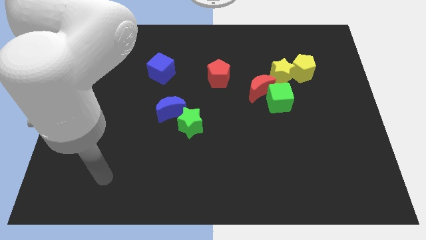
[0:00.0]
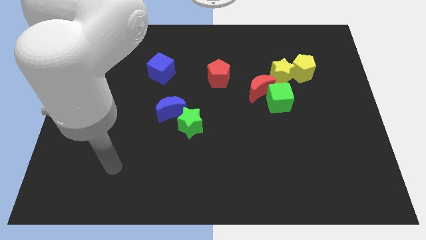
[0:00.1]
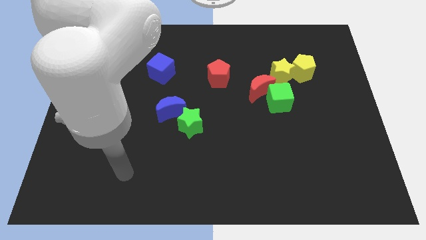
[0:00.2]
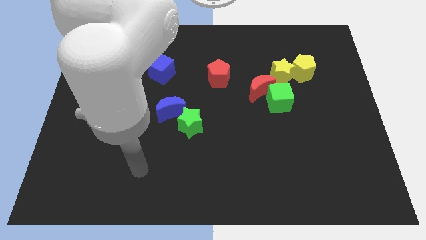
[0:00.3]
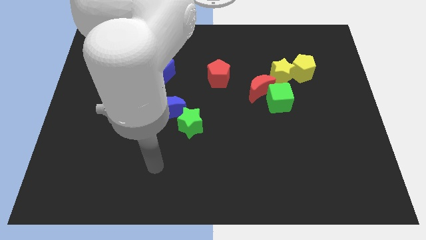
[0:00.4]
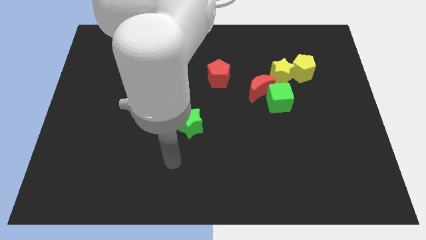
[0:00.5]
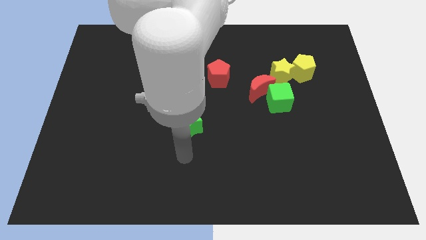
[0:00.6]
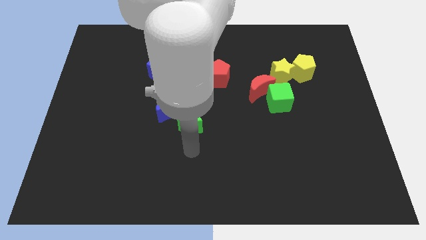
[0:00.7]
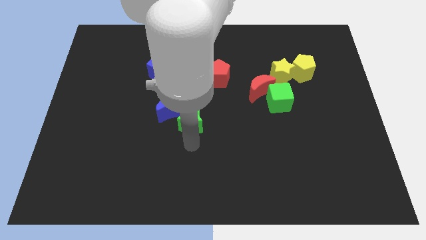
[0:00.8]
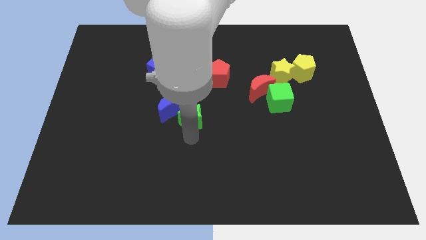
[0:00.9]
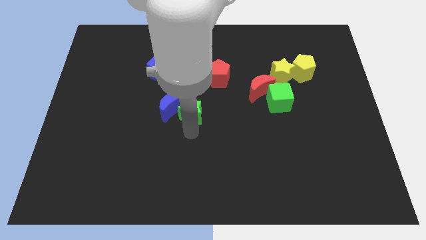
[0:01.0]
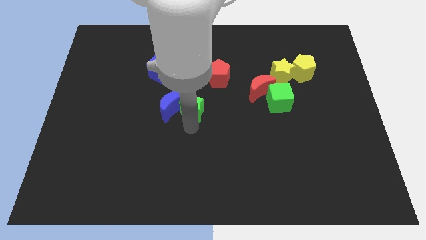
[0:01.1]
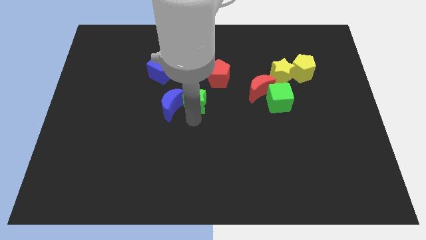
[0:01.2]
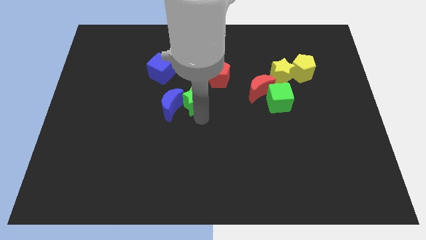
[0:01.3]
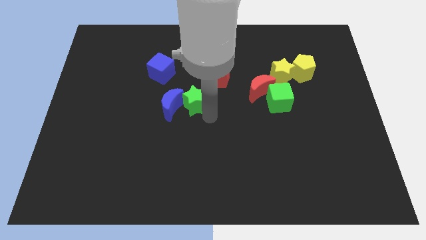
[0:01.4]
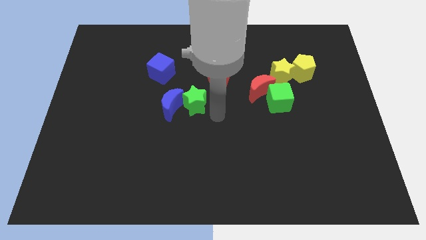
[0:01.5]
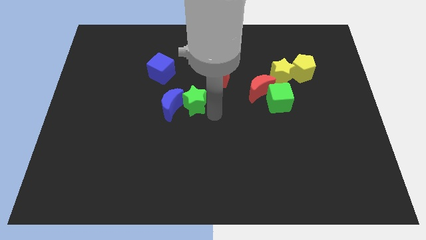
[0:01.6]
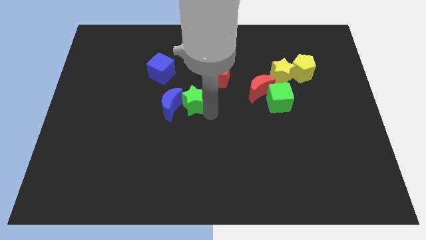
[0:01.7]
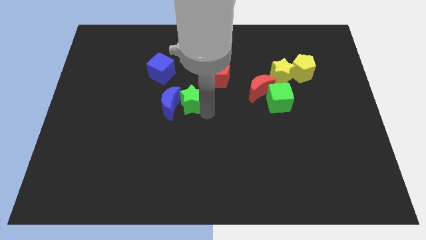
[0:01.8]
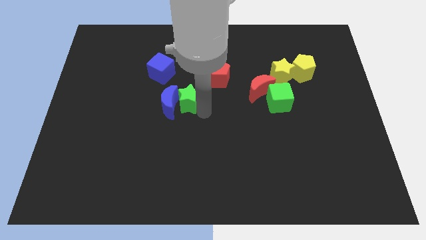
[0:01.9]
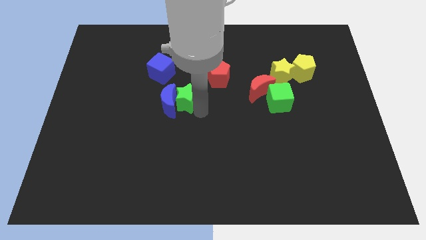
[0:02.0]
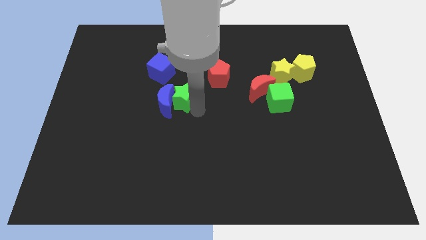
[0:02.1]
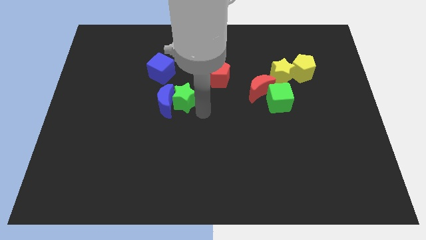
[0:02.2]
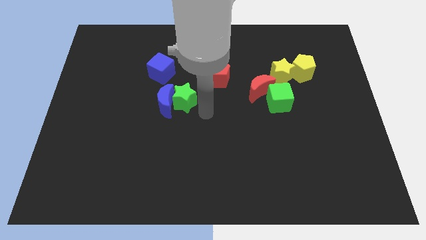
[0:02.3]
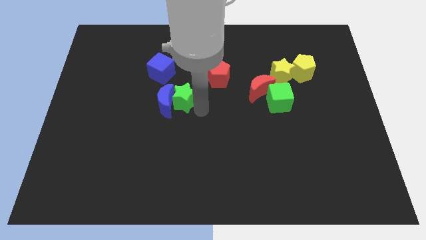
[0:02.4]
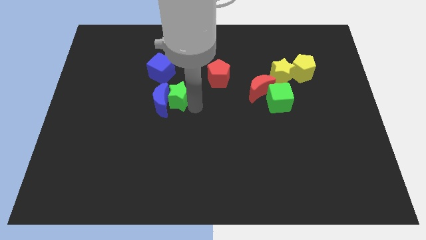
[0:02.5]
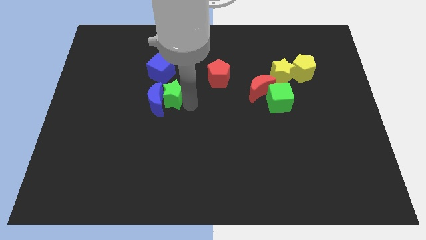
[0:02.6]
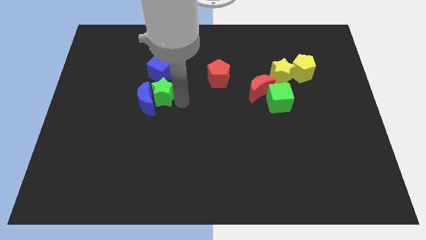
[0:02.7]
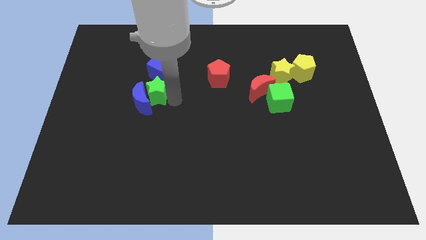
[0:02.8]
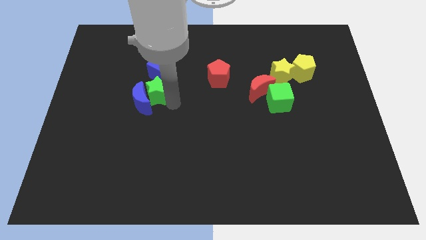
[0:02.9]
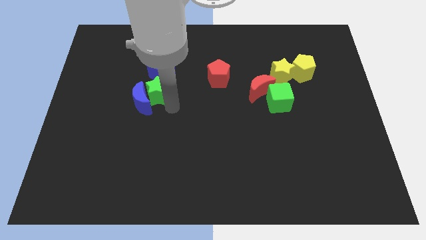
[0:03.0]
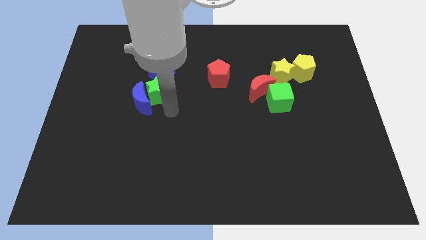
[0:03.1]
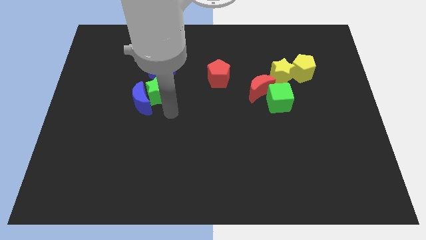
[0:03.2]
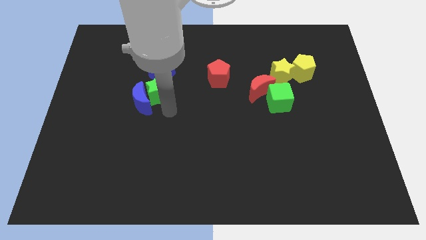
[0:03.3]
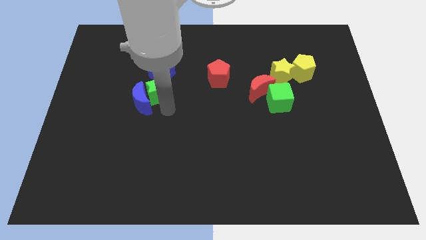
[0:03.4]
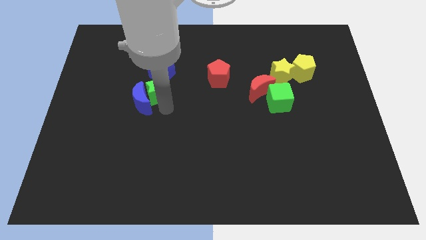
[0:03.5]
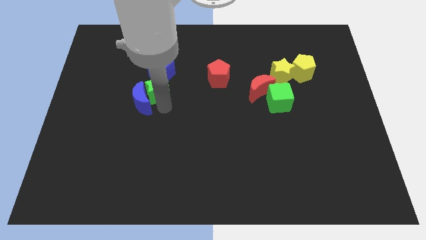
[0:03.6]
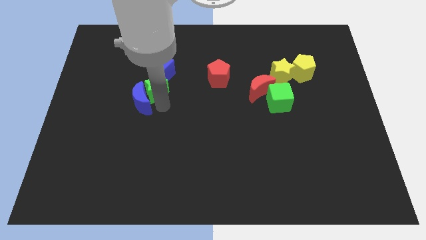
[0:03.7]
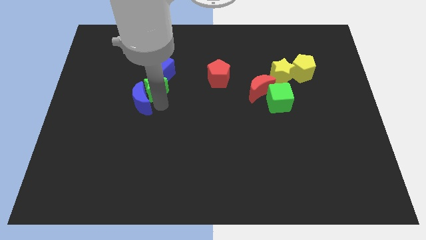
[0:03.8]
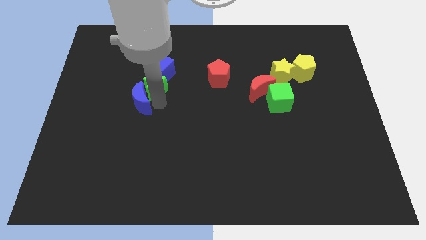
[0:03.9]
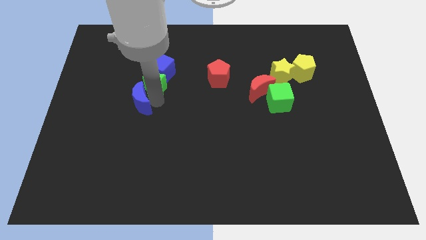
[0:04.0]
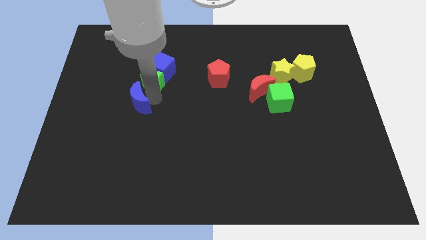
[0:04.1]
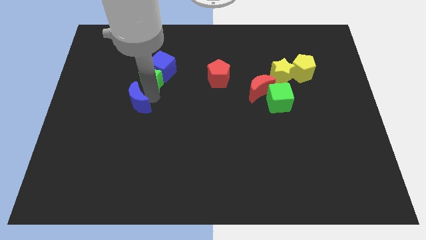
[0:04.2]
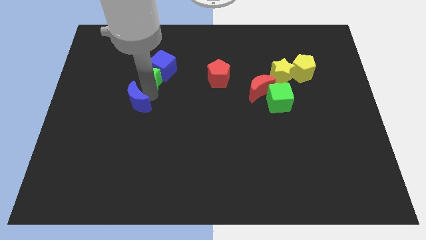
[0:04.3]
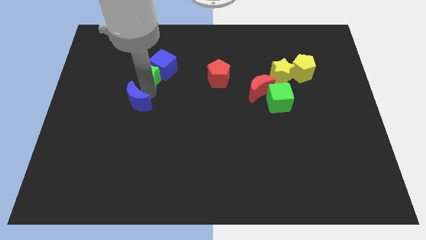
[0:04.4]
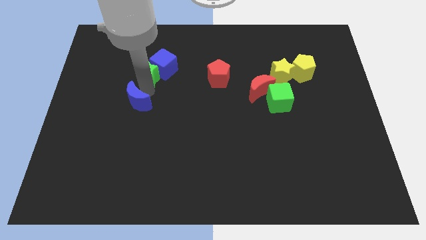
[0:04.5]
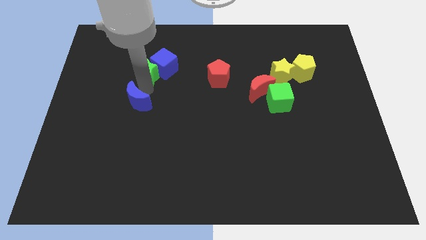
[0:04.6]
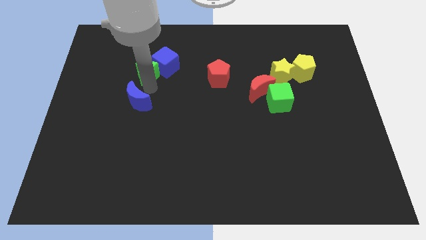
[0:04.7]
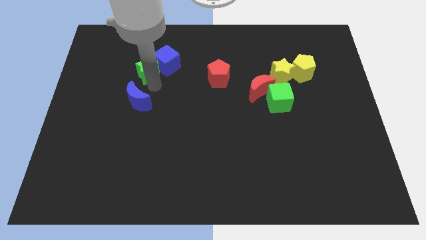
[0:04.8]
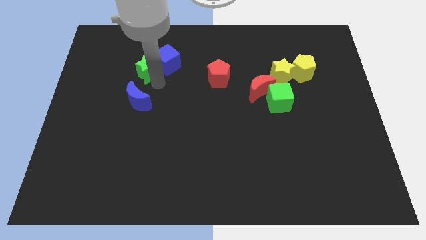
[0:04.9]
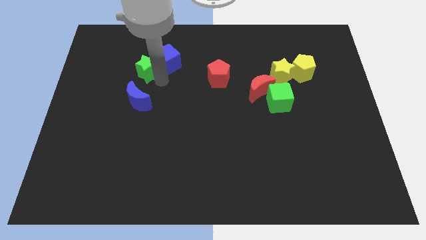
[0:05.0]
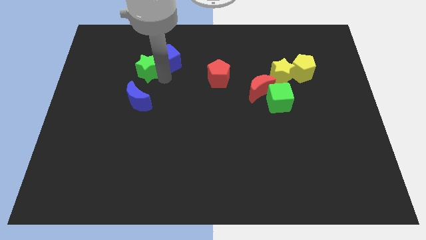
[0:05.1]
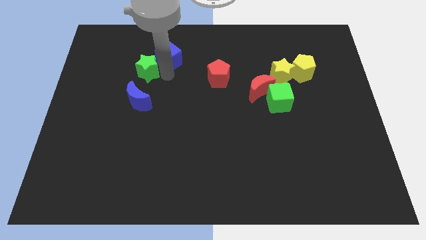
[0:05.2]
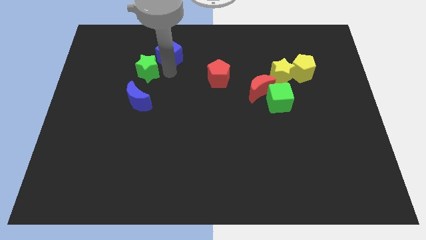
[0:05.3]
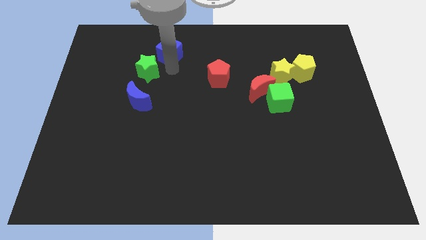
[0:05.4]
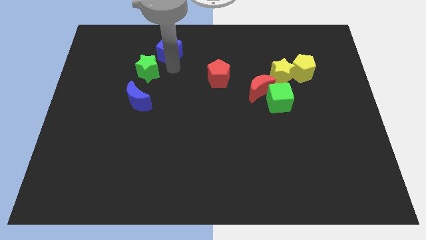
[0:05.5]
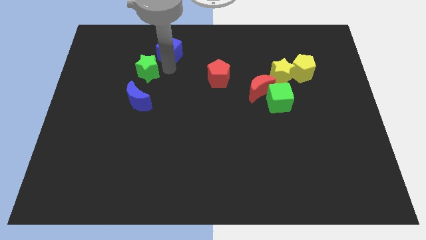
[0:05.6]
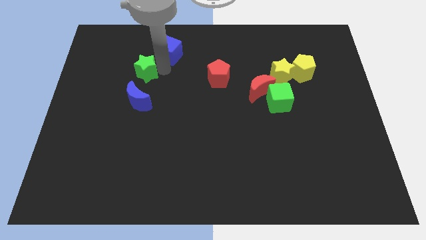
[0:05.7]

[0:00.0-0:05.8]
slide the green star up and left diagonally

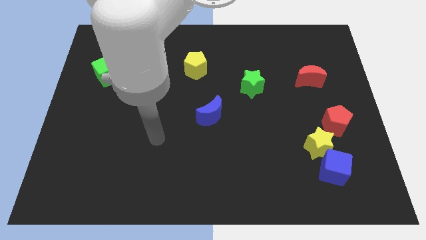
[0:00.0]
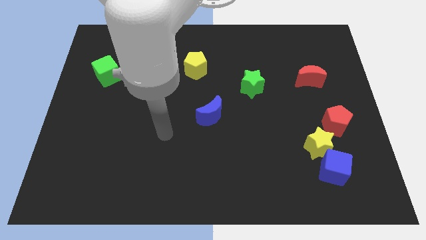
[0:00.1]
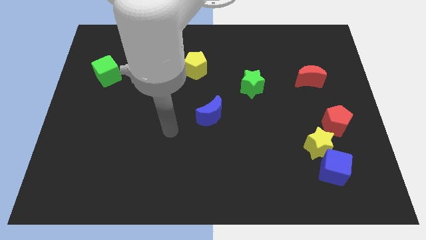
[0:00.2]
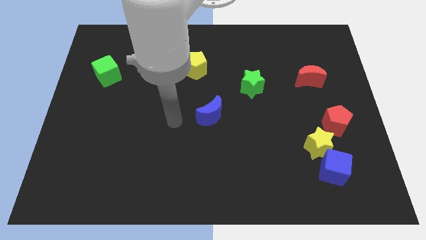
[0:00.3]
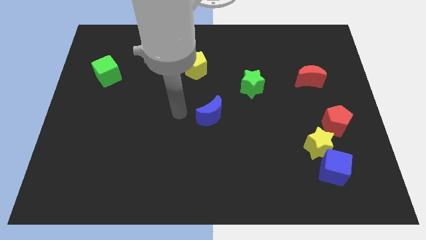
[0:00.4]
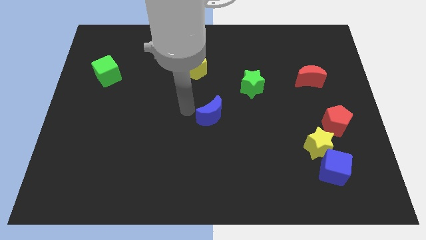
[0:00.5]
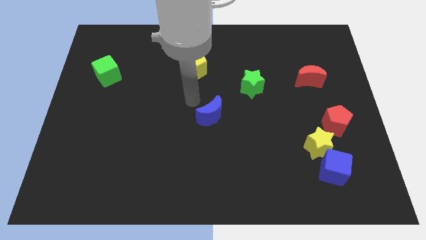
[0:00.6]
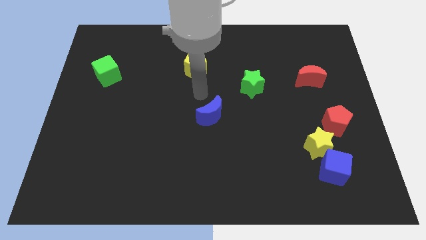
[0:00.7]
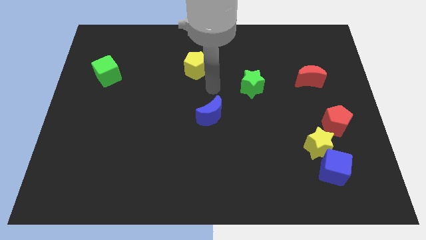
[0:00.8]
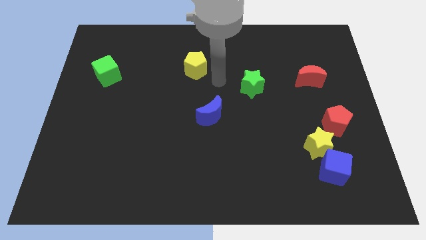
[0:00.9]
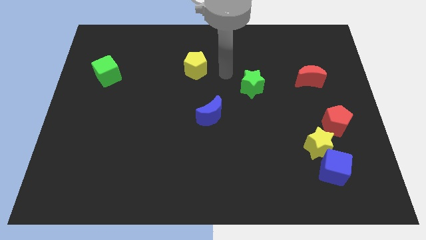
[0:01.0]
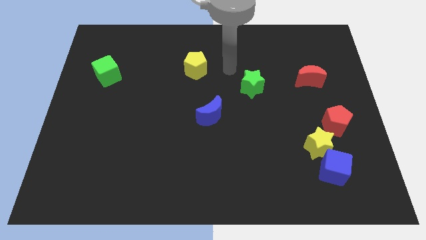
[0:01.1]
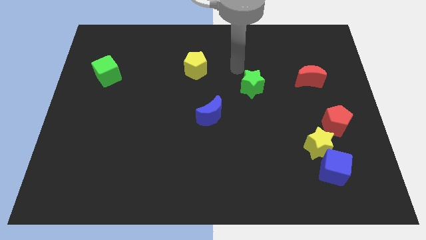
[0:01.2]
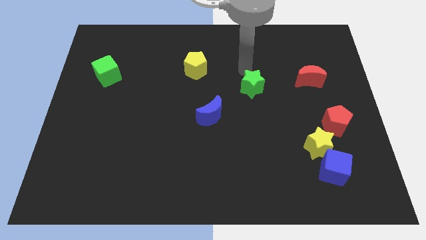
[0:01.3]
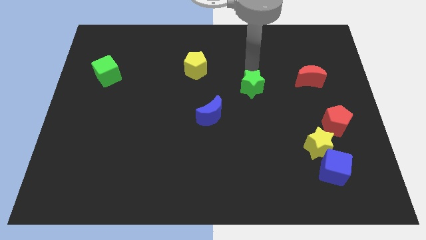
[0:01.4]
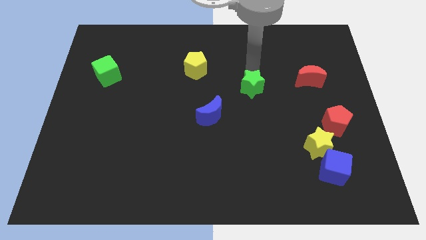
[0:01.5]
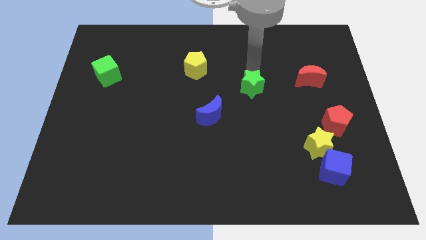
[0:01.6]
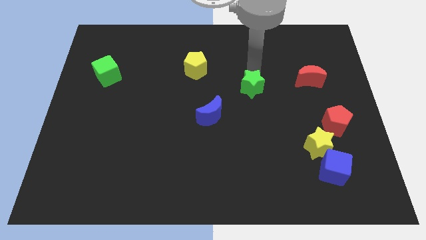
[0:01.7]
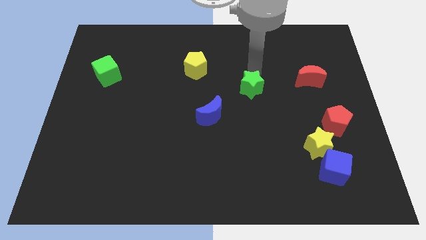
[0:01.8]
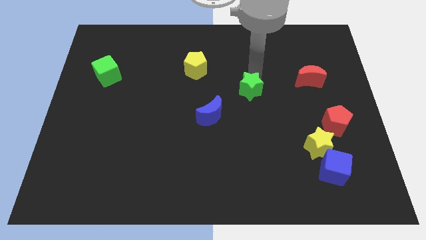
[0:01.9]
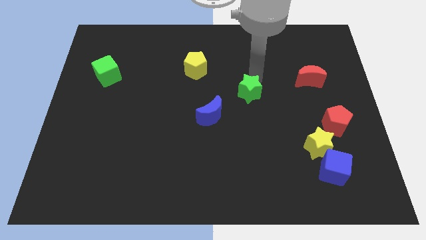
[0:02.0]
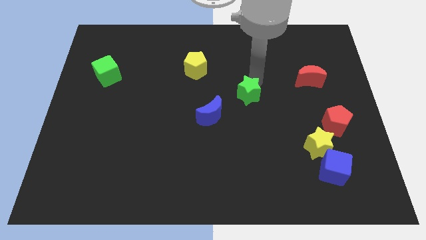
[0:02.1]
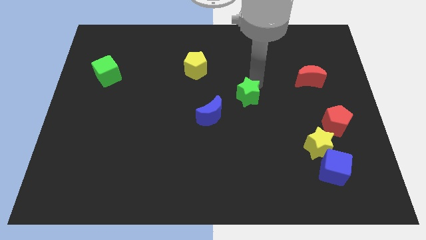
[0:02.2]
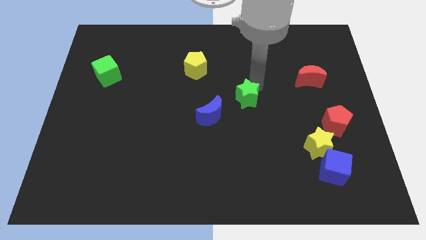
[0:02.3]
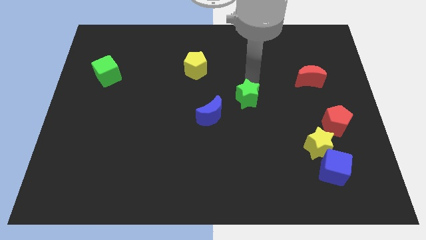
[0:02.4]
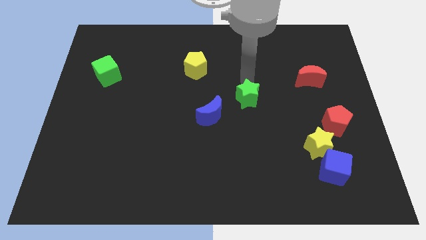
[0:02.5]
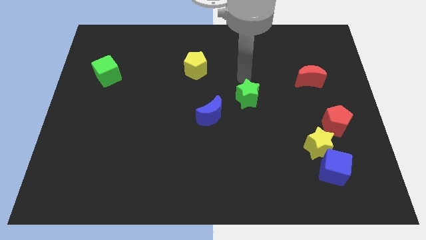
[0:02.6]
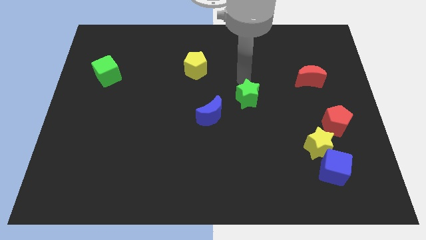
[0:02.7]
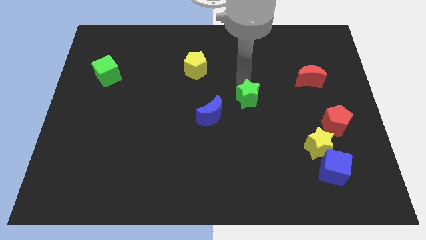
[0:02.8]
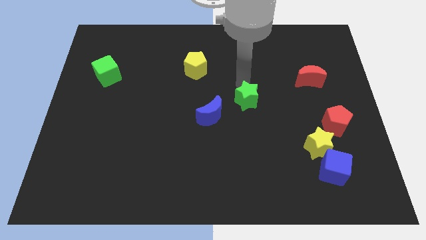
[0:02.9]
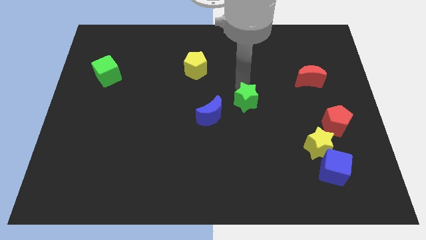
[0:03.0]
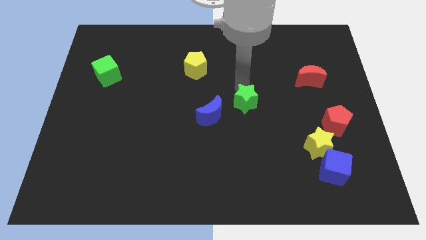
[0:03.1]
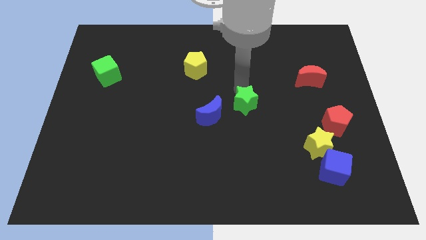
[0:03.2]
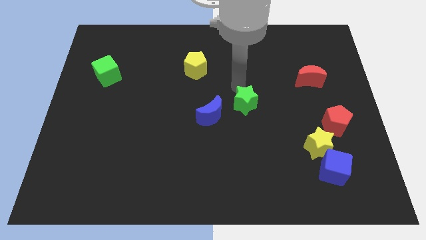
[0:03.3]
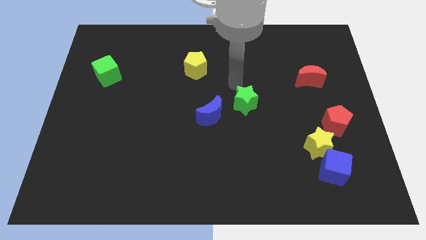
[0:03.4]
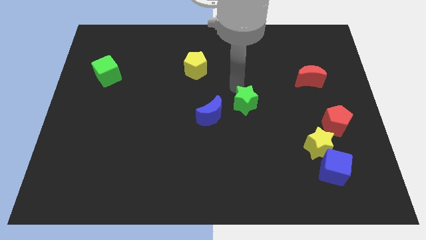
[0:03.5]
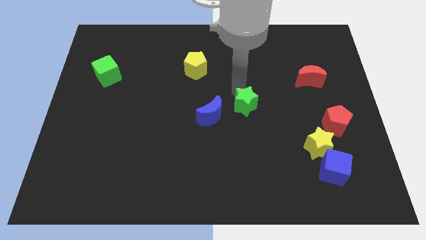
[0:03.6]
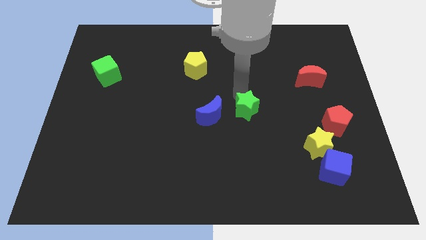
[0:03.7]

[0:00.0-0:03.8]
slide the green star downwards a little bit
